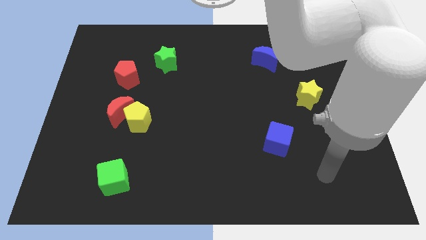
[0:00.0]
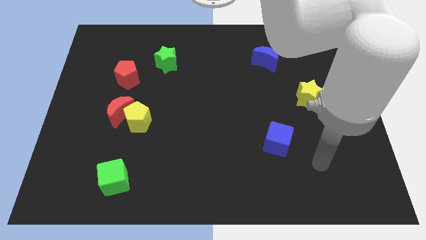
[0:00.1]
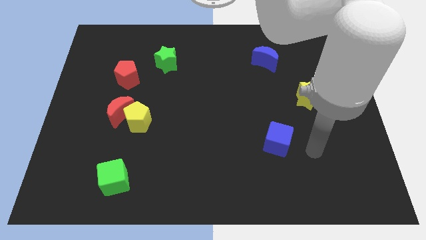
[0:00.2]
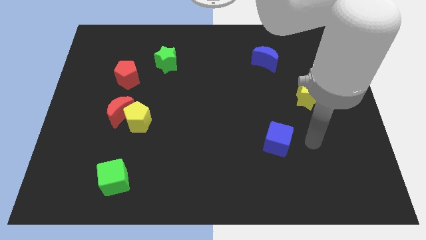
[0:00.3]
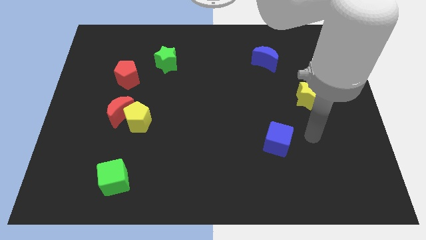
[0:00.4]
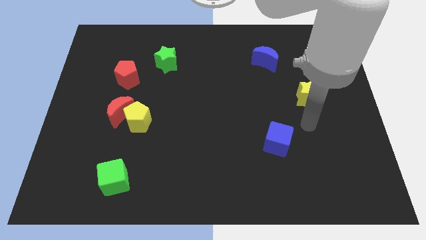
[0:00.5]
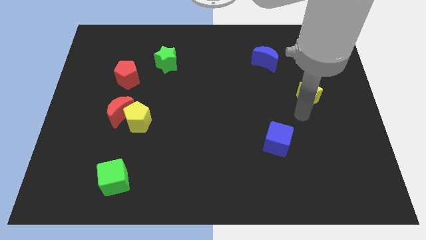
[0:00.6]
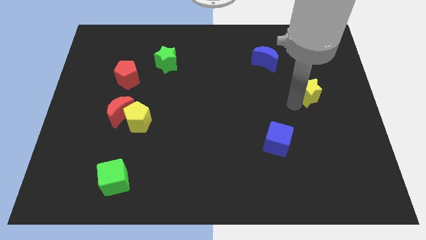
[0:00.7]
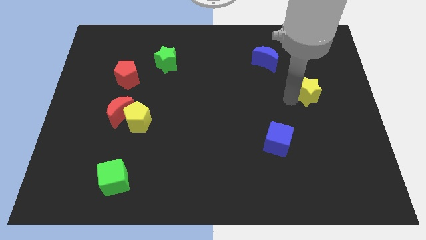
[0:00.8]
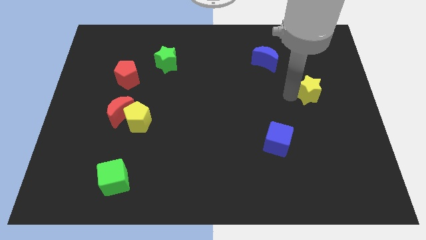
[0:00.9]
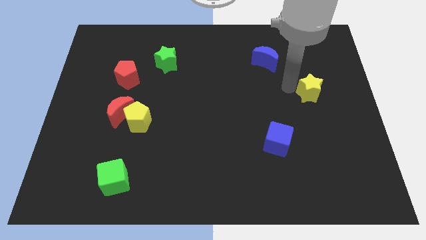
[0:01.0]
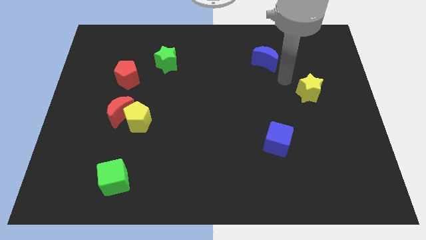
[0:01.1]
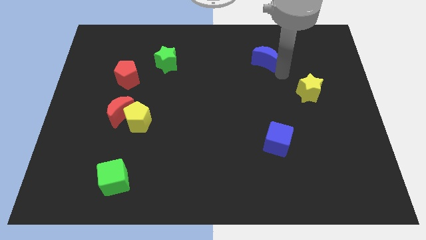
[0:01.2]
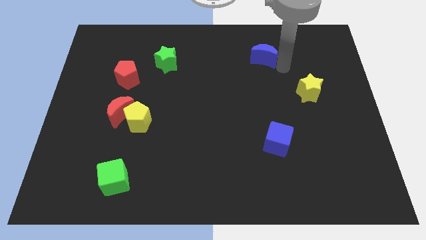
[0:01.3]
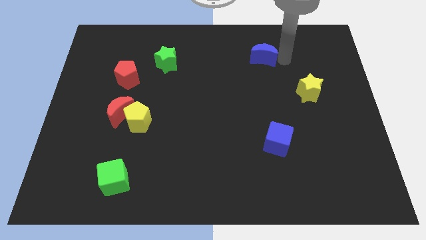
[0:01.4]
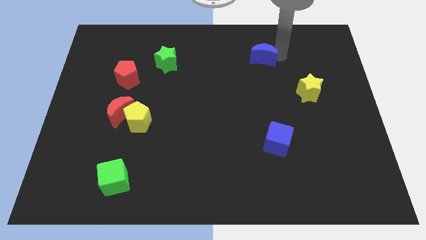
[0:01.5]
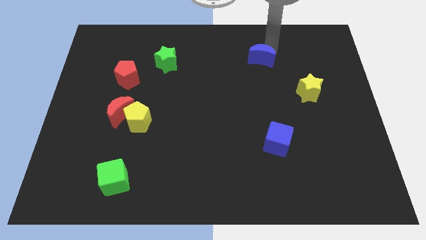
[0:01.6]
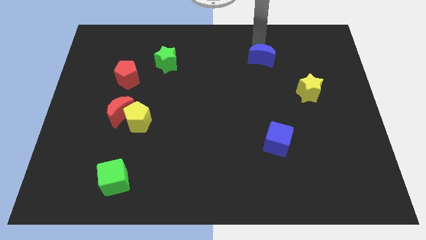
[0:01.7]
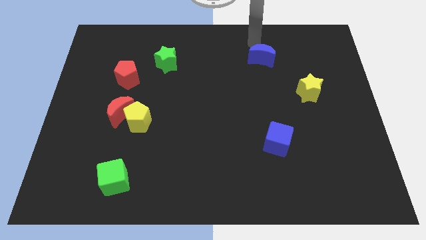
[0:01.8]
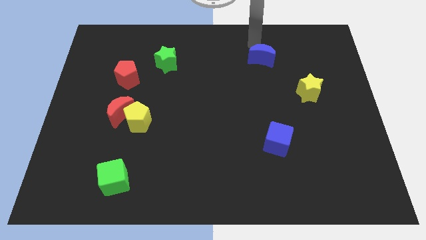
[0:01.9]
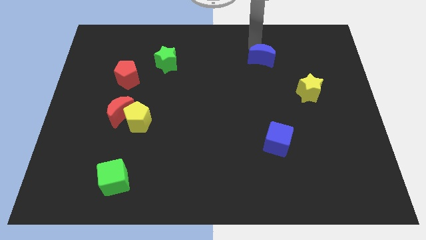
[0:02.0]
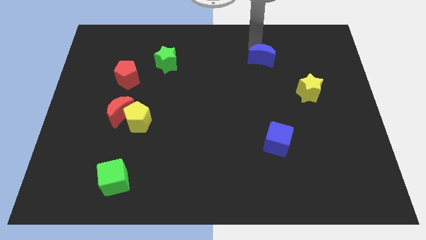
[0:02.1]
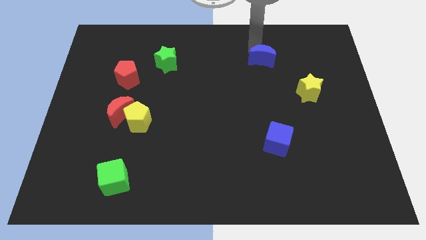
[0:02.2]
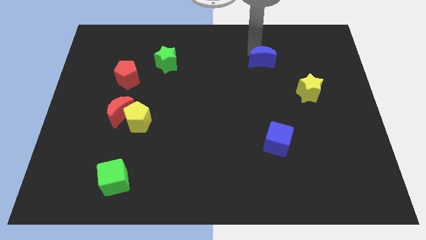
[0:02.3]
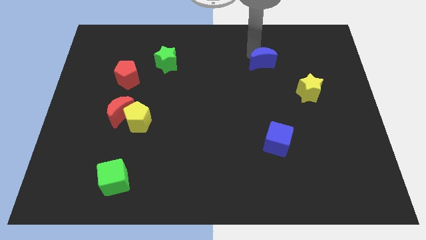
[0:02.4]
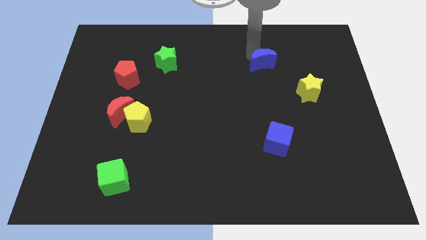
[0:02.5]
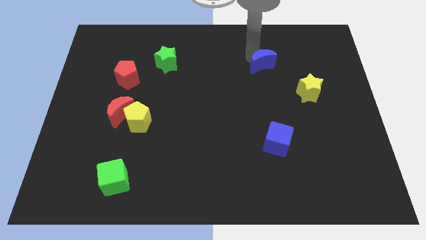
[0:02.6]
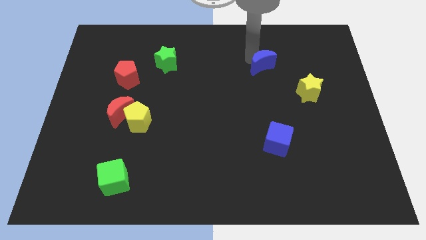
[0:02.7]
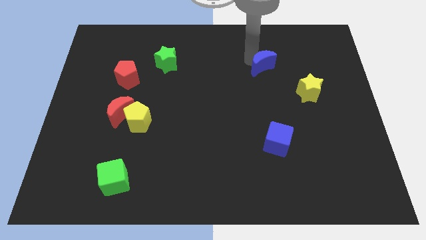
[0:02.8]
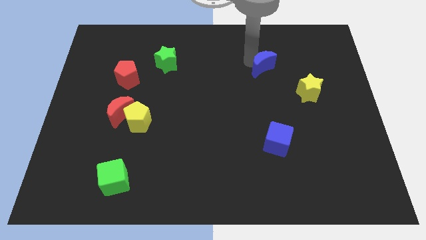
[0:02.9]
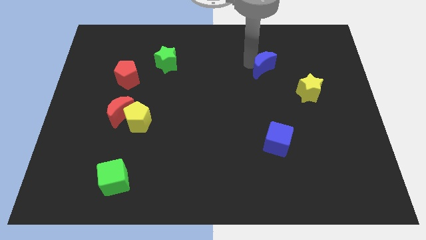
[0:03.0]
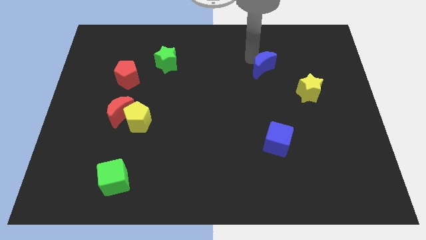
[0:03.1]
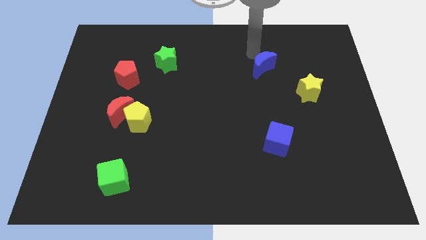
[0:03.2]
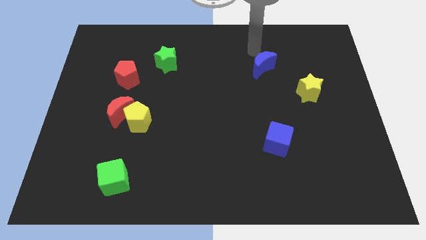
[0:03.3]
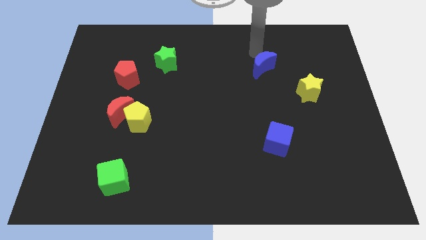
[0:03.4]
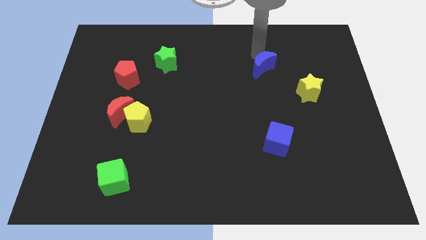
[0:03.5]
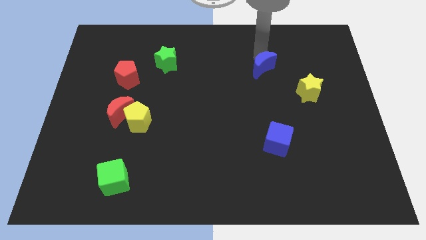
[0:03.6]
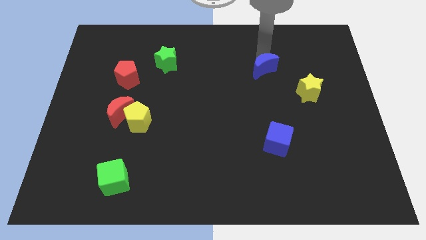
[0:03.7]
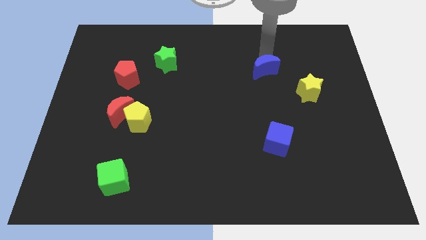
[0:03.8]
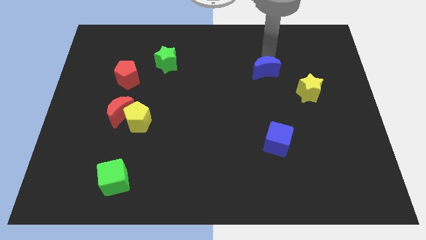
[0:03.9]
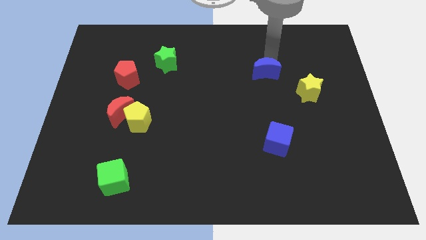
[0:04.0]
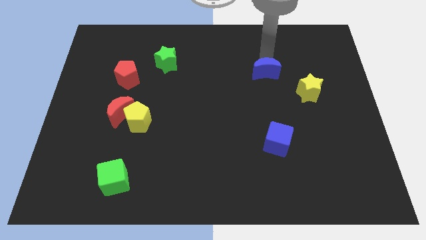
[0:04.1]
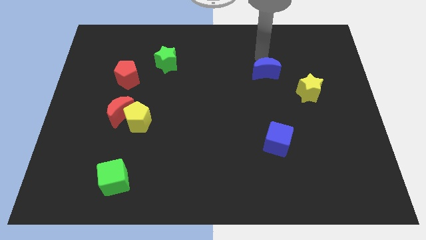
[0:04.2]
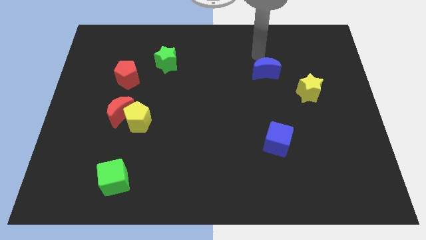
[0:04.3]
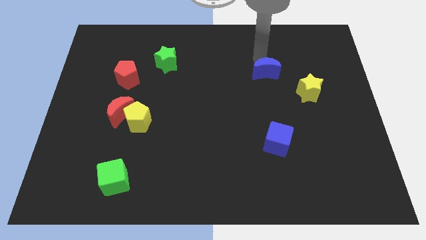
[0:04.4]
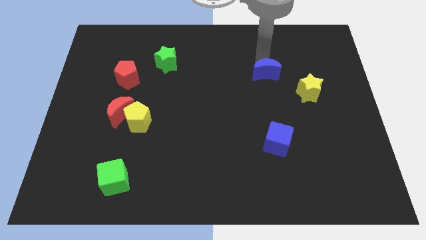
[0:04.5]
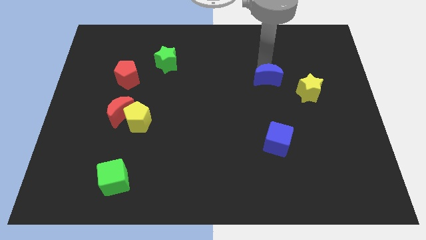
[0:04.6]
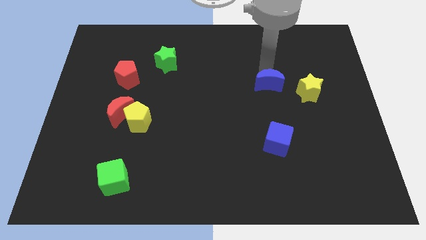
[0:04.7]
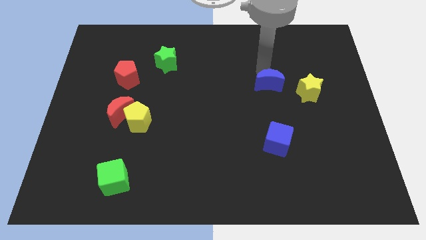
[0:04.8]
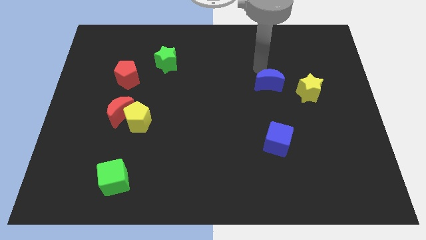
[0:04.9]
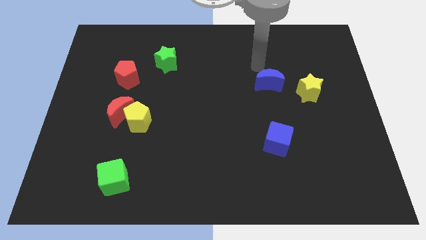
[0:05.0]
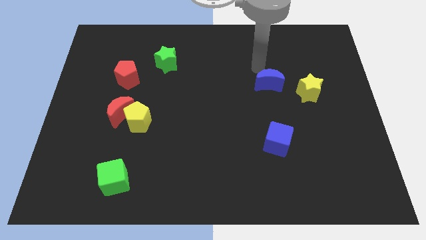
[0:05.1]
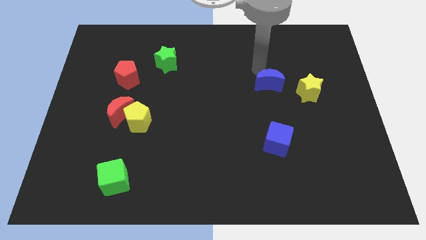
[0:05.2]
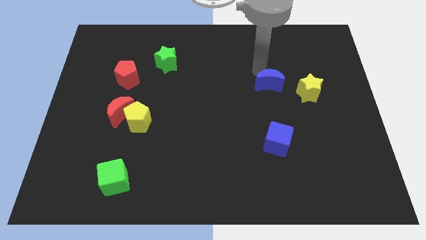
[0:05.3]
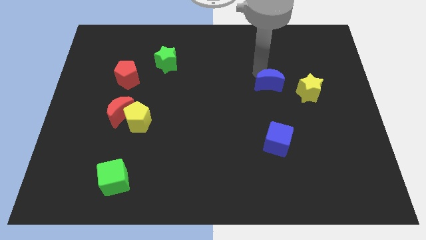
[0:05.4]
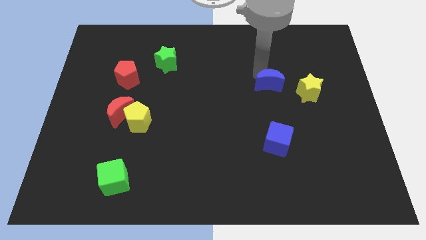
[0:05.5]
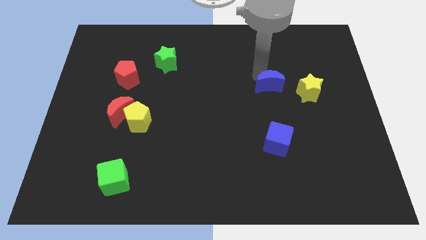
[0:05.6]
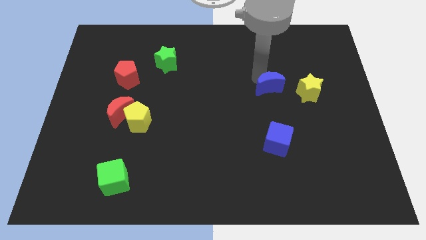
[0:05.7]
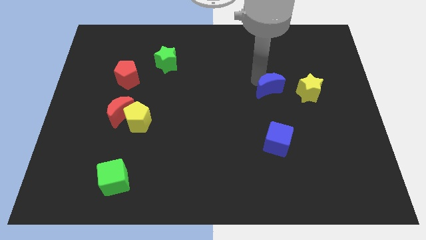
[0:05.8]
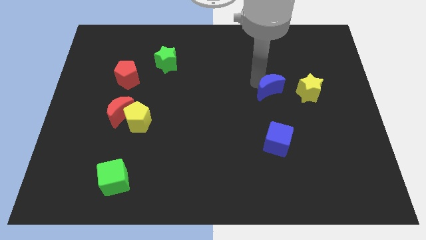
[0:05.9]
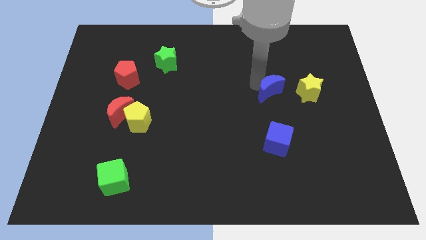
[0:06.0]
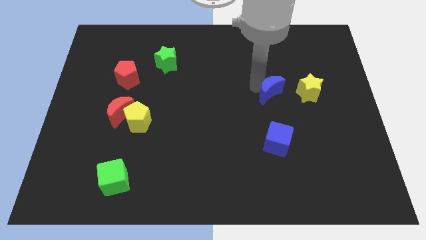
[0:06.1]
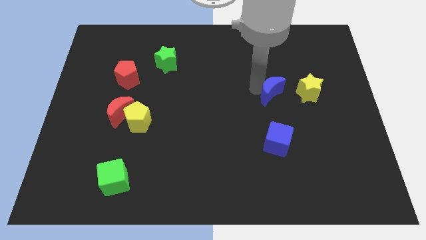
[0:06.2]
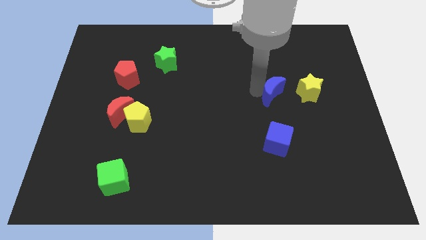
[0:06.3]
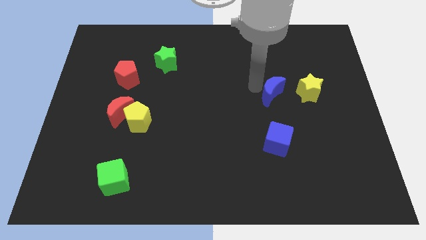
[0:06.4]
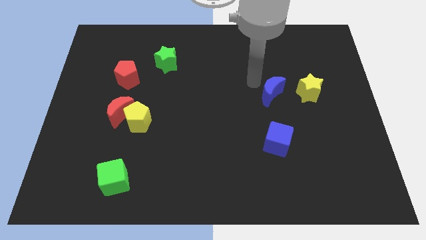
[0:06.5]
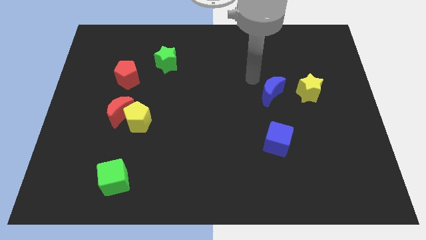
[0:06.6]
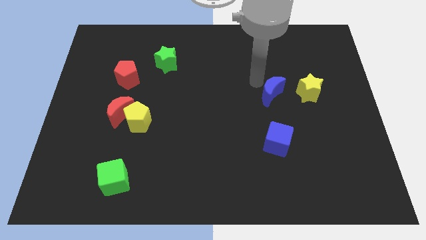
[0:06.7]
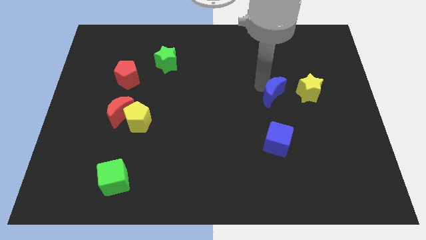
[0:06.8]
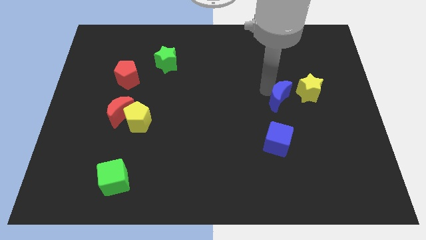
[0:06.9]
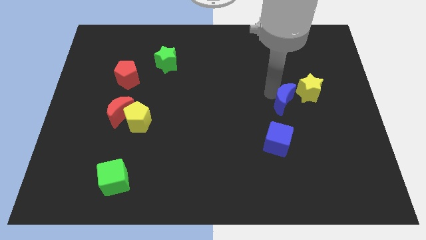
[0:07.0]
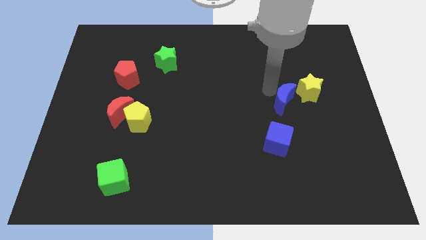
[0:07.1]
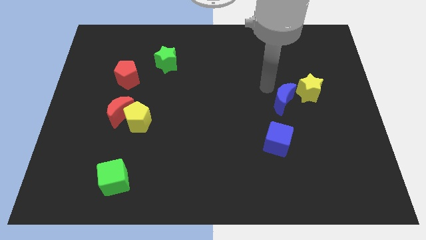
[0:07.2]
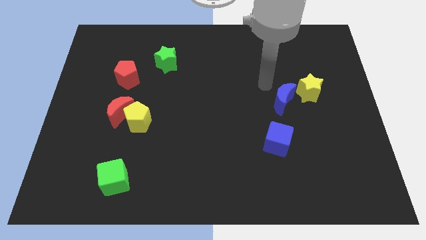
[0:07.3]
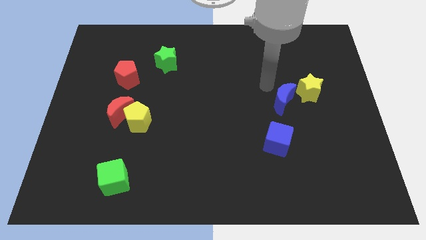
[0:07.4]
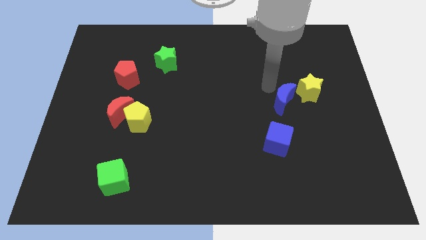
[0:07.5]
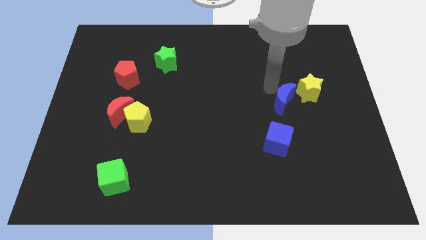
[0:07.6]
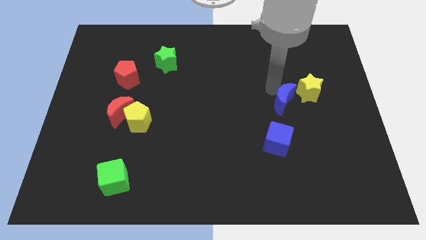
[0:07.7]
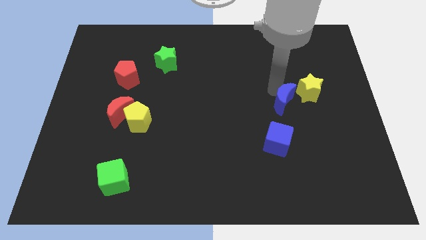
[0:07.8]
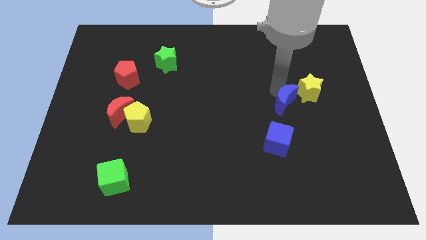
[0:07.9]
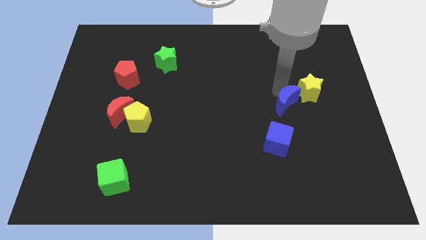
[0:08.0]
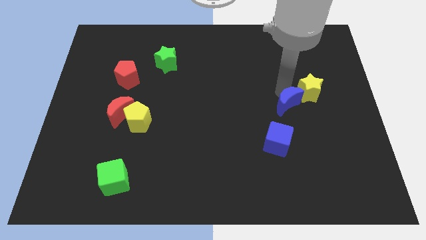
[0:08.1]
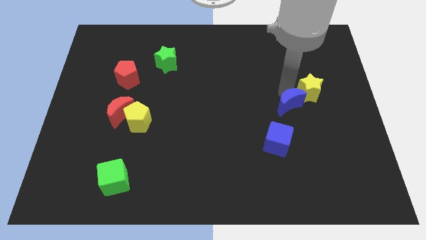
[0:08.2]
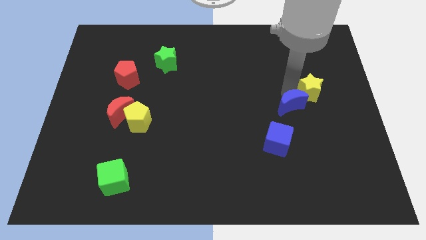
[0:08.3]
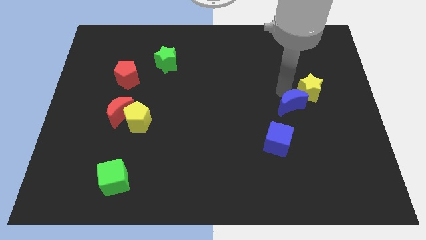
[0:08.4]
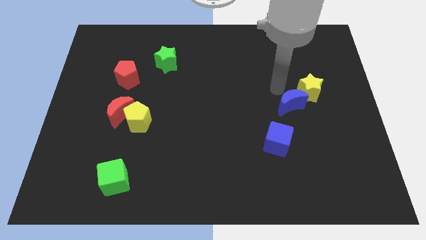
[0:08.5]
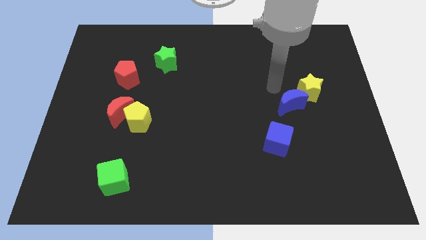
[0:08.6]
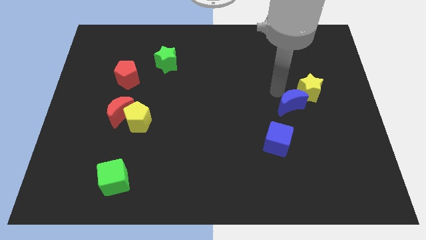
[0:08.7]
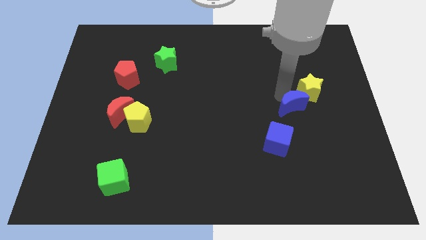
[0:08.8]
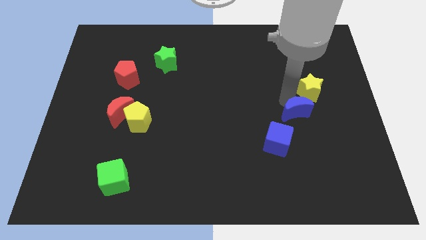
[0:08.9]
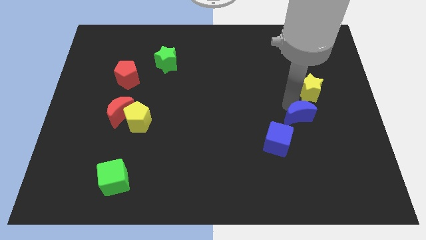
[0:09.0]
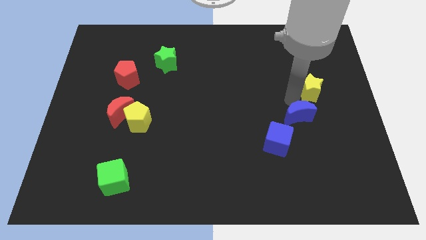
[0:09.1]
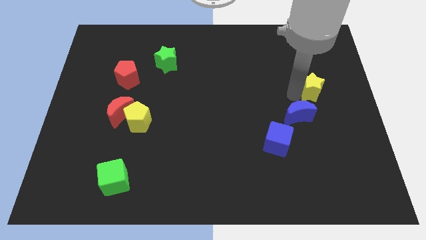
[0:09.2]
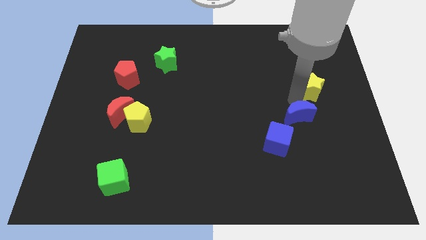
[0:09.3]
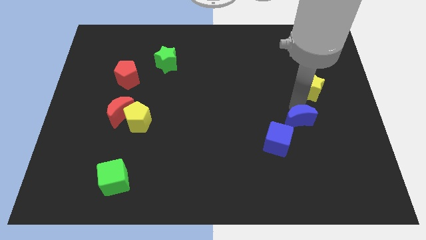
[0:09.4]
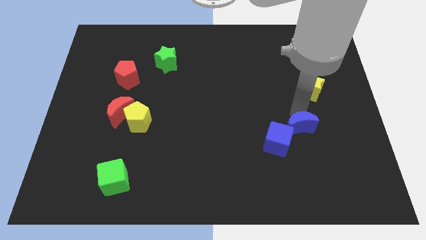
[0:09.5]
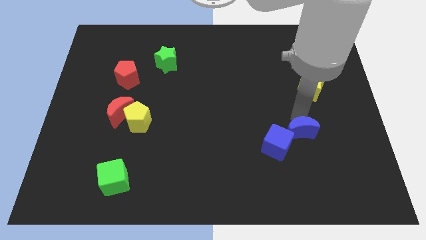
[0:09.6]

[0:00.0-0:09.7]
push the blue moon down
